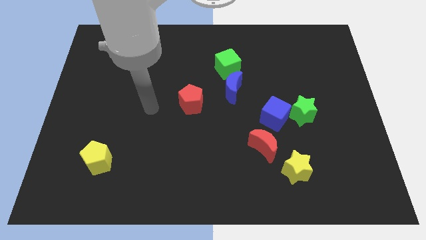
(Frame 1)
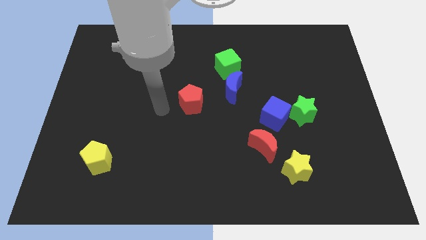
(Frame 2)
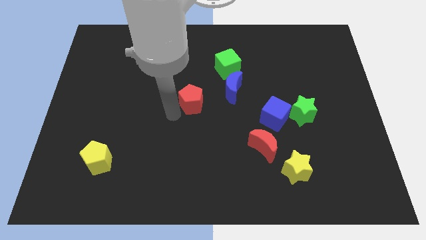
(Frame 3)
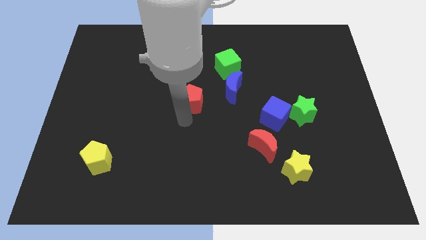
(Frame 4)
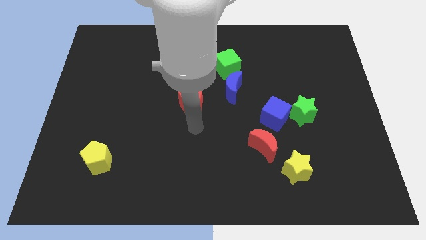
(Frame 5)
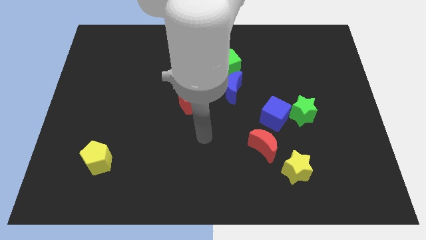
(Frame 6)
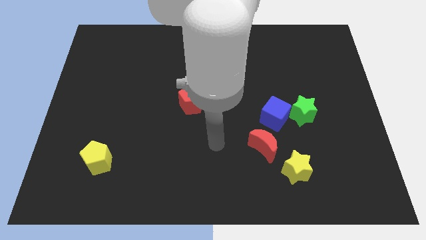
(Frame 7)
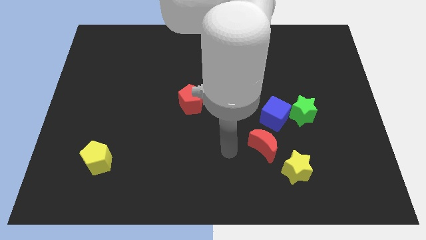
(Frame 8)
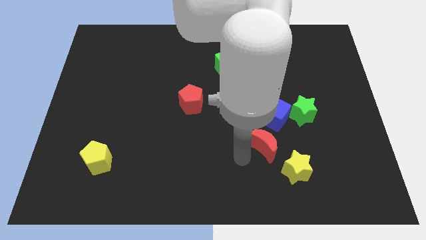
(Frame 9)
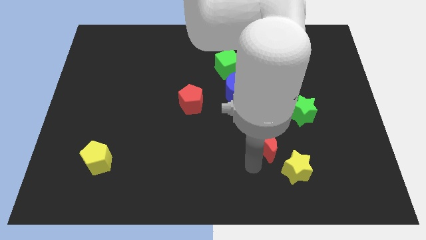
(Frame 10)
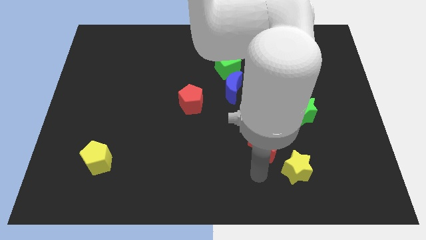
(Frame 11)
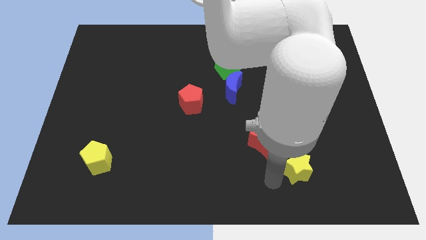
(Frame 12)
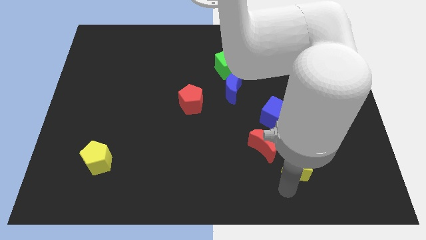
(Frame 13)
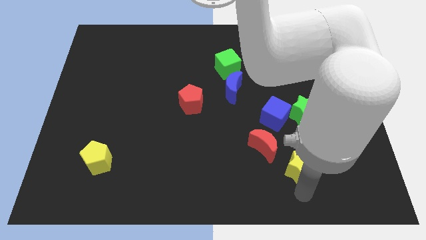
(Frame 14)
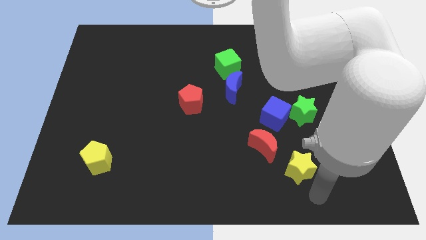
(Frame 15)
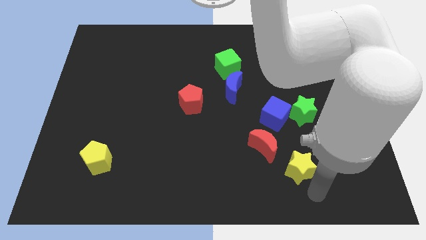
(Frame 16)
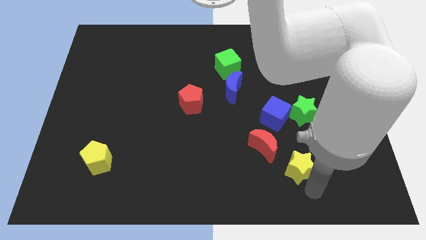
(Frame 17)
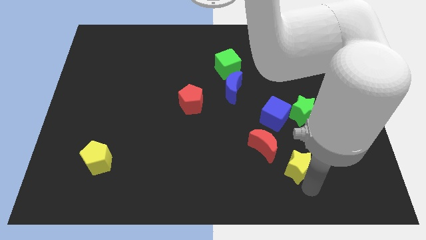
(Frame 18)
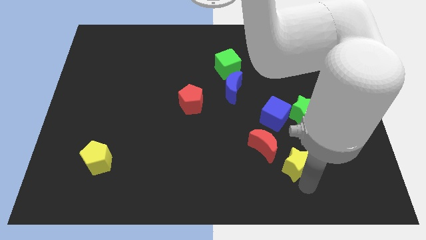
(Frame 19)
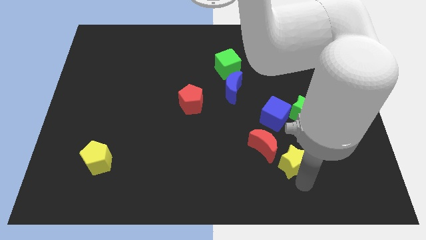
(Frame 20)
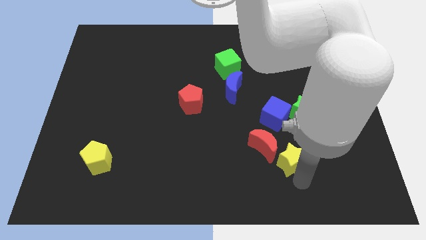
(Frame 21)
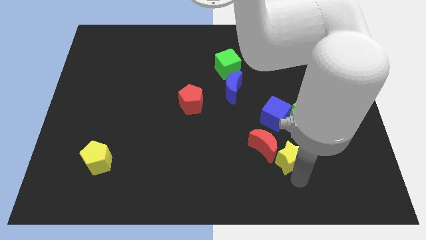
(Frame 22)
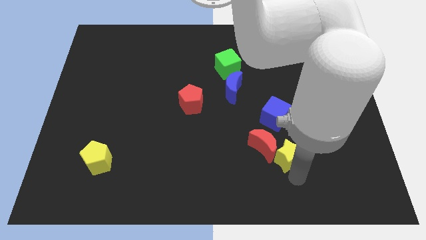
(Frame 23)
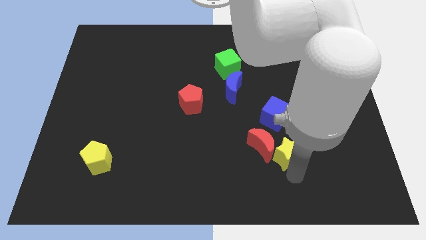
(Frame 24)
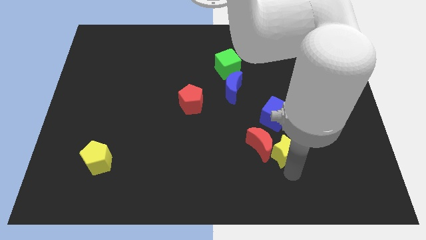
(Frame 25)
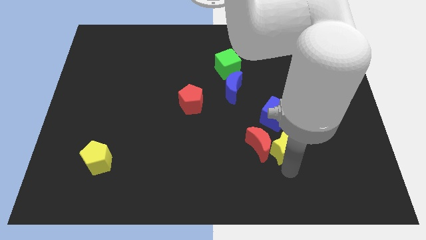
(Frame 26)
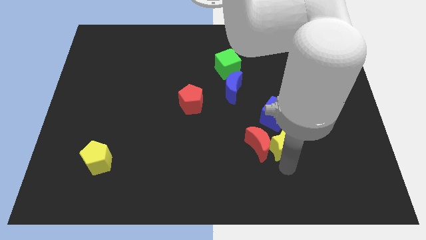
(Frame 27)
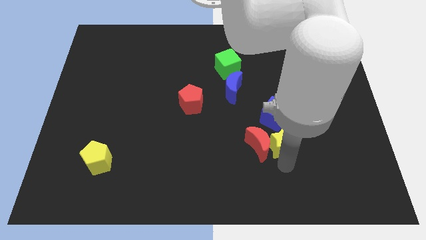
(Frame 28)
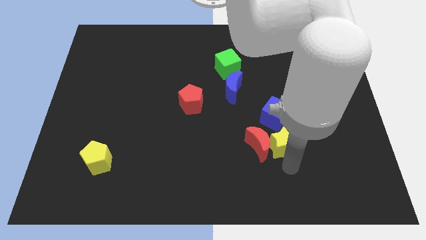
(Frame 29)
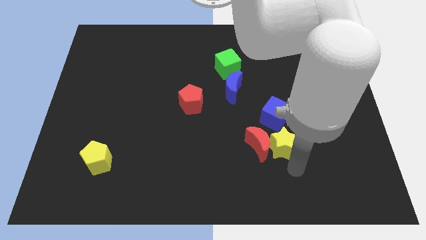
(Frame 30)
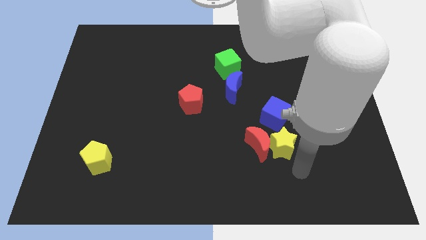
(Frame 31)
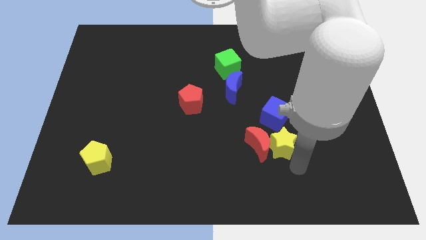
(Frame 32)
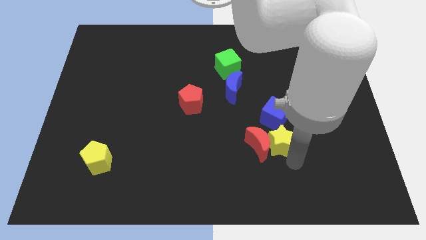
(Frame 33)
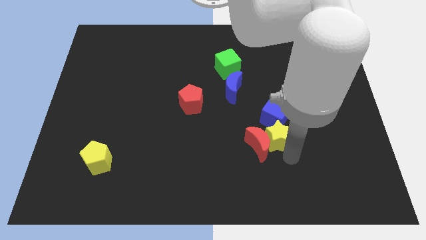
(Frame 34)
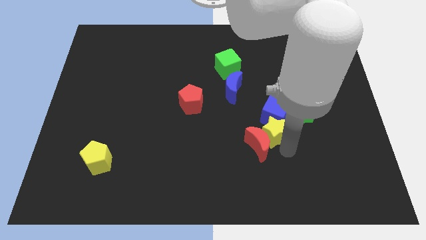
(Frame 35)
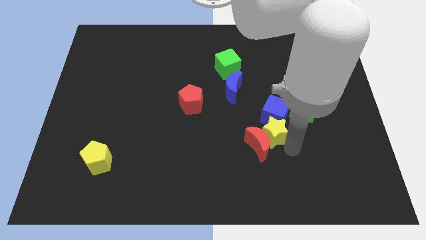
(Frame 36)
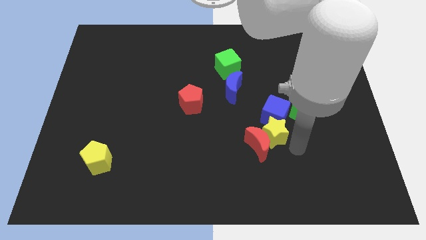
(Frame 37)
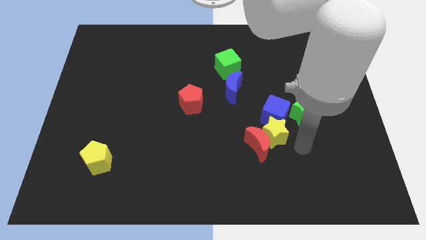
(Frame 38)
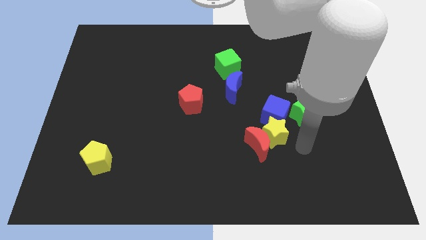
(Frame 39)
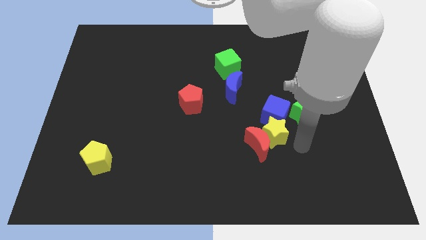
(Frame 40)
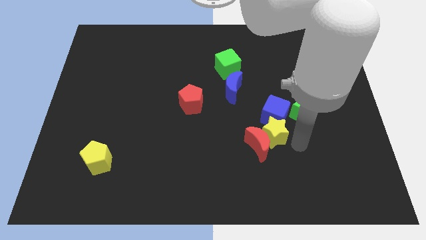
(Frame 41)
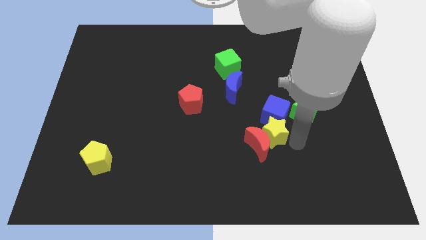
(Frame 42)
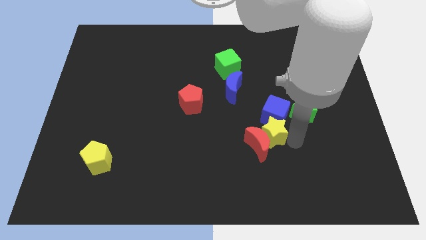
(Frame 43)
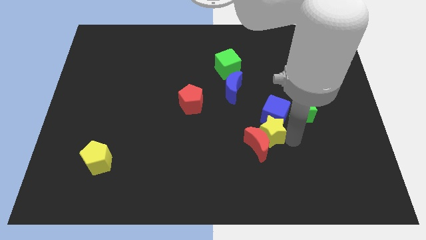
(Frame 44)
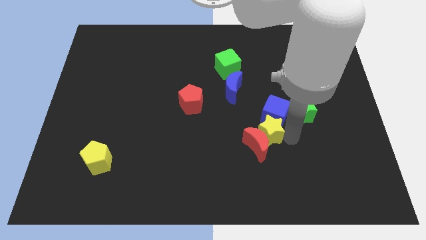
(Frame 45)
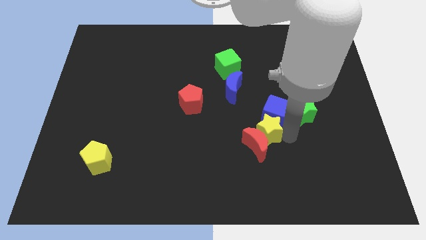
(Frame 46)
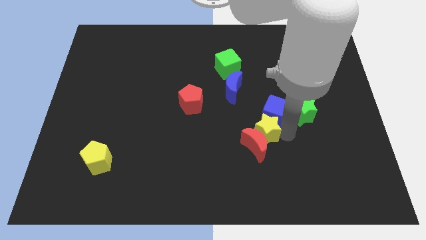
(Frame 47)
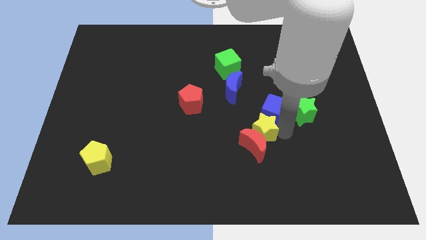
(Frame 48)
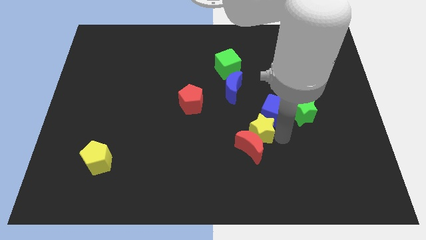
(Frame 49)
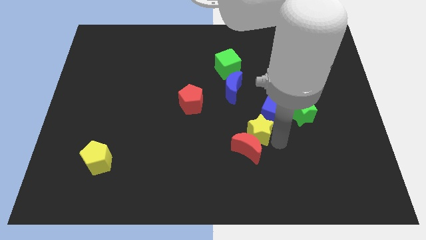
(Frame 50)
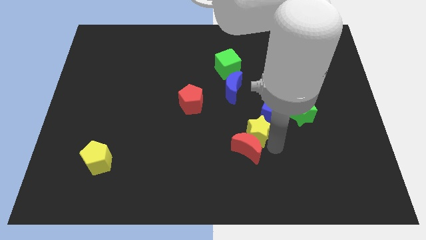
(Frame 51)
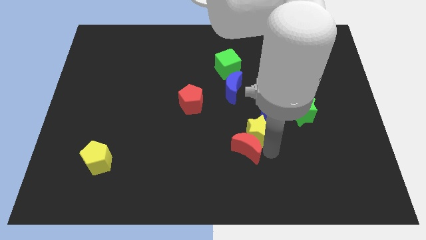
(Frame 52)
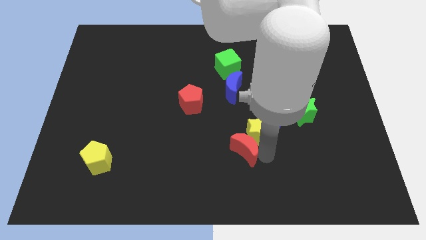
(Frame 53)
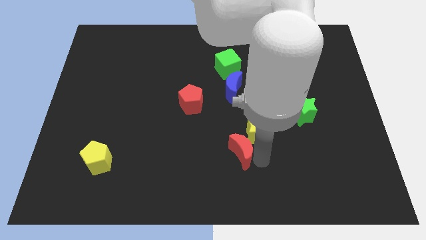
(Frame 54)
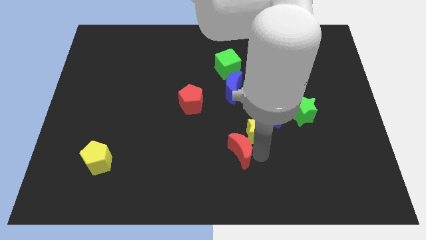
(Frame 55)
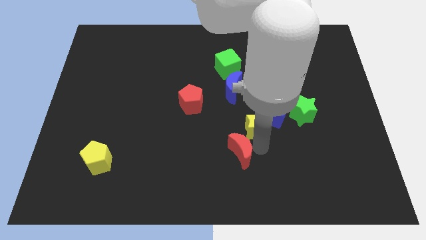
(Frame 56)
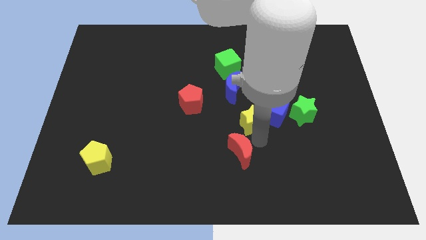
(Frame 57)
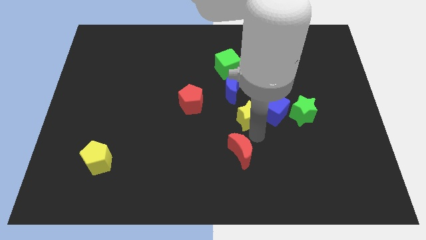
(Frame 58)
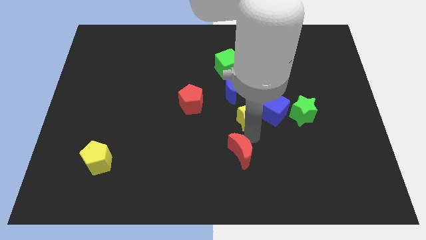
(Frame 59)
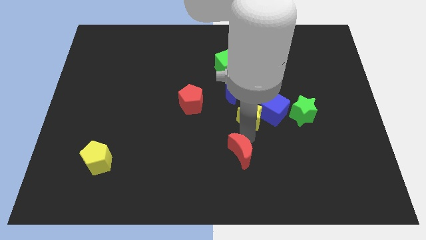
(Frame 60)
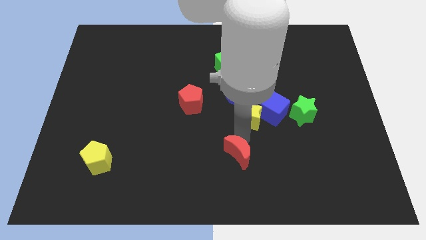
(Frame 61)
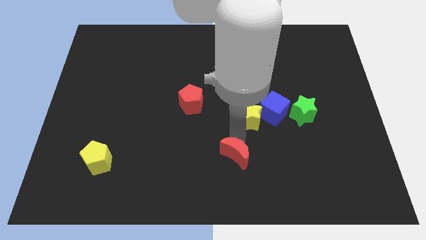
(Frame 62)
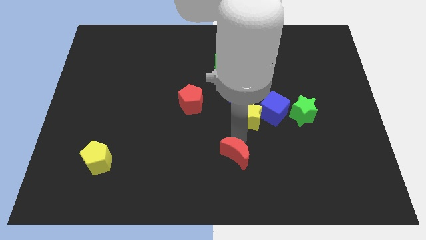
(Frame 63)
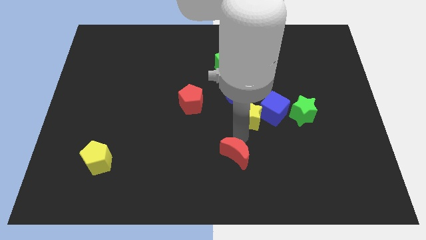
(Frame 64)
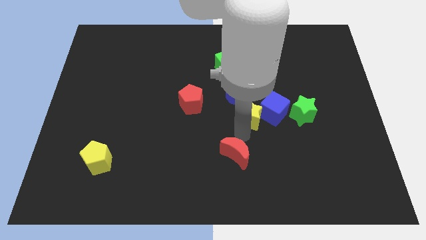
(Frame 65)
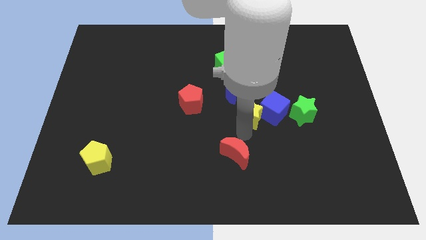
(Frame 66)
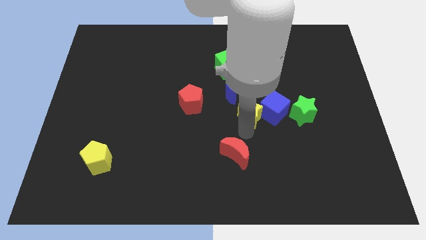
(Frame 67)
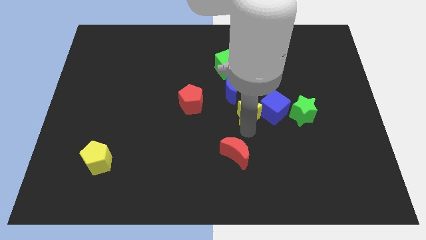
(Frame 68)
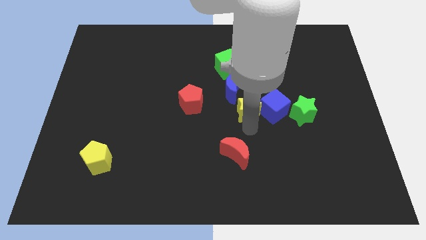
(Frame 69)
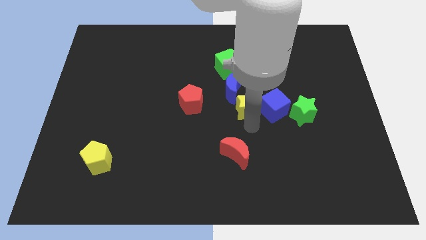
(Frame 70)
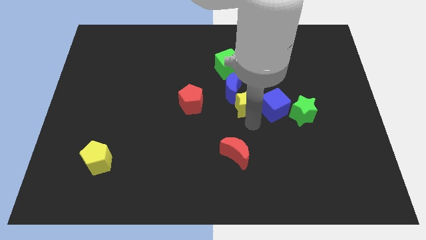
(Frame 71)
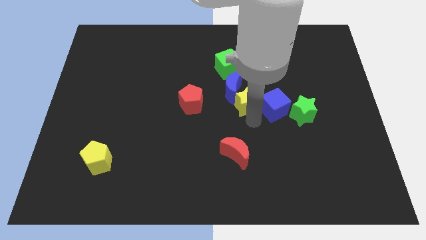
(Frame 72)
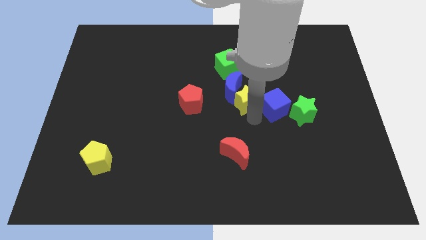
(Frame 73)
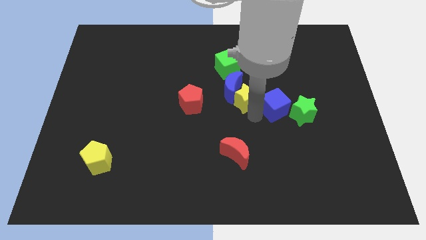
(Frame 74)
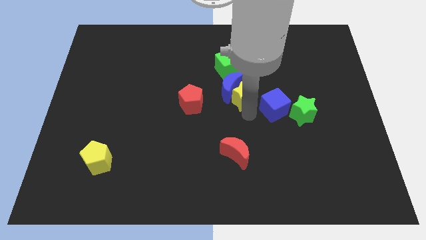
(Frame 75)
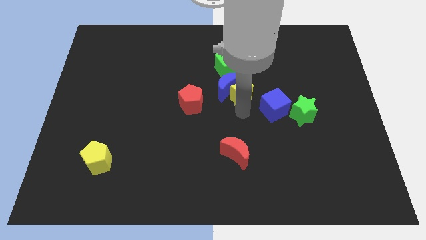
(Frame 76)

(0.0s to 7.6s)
put the yellow star diagonally down and to the right of the green cube
